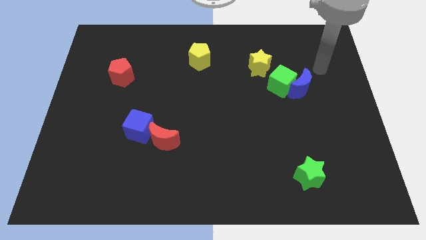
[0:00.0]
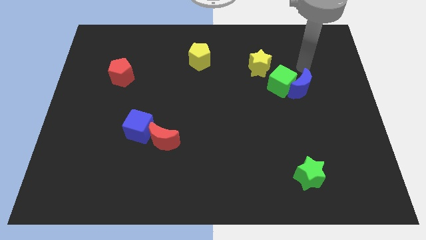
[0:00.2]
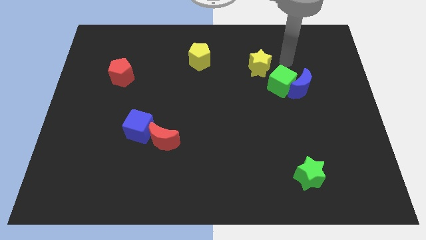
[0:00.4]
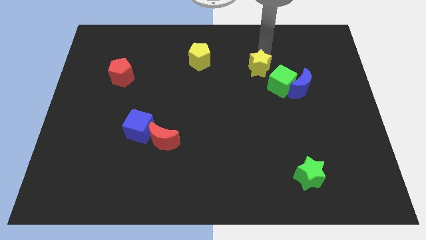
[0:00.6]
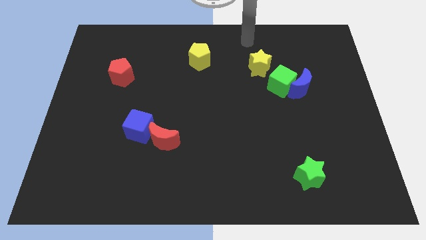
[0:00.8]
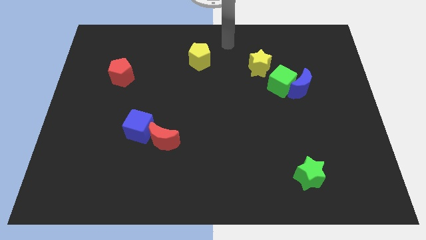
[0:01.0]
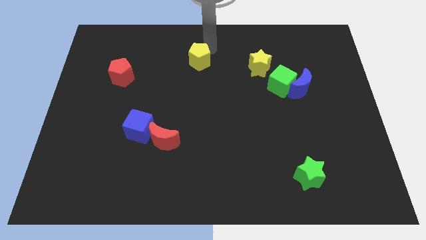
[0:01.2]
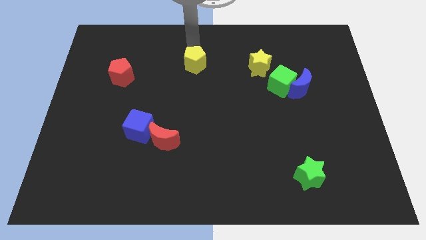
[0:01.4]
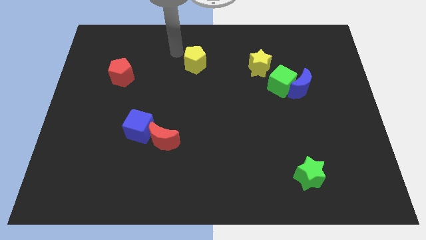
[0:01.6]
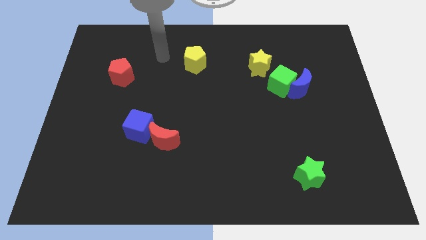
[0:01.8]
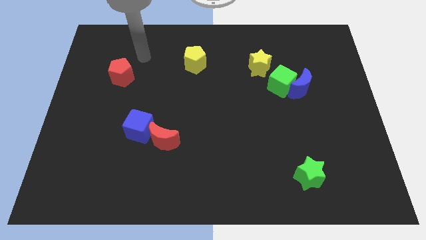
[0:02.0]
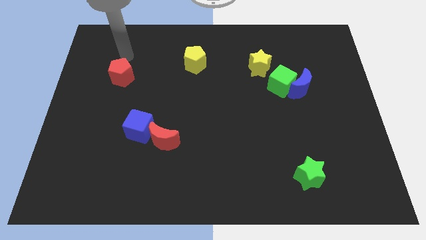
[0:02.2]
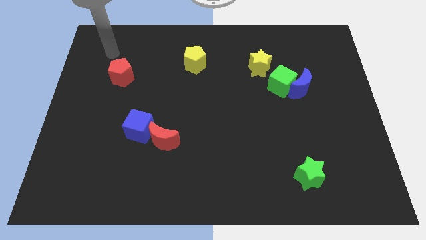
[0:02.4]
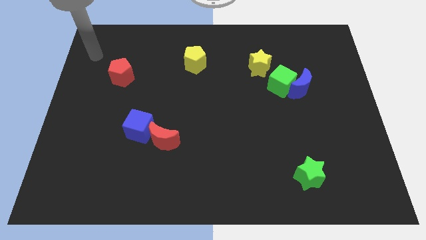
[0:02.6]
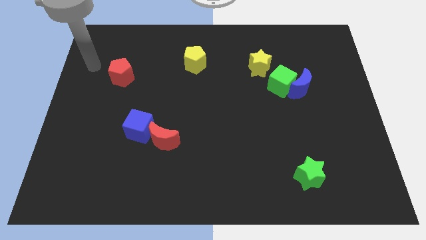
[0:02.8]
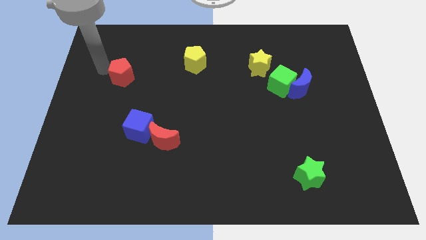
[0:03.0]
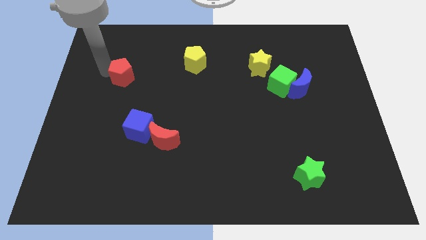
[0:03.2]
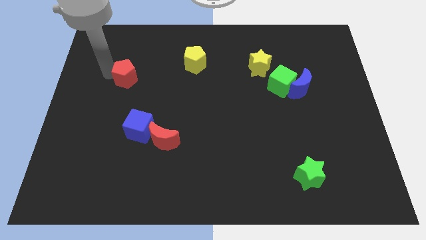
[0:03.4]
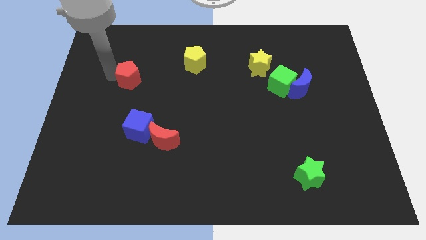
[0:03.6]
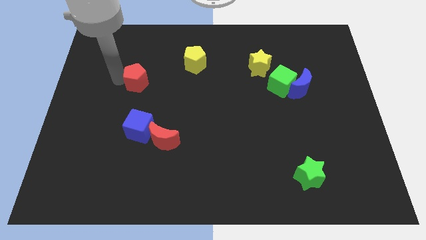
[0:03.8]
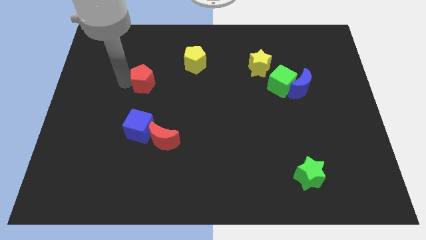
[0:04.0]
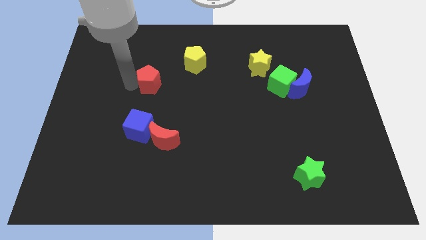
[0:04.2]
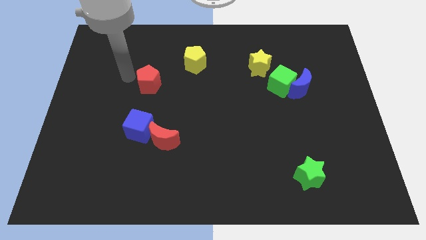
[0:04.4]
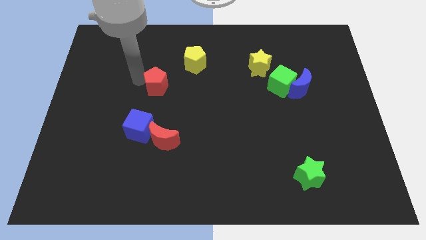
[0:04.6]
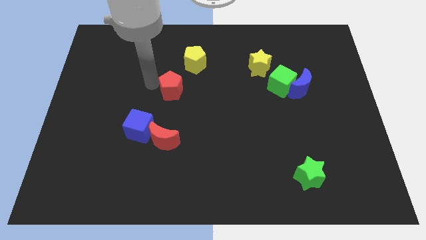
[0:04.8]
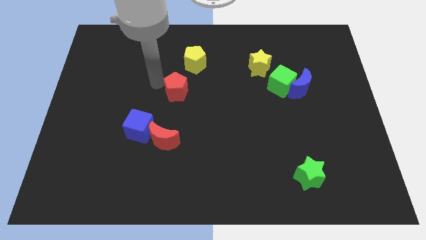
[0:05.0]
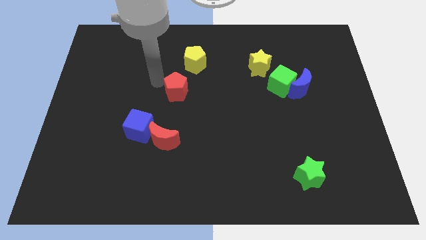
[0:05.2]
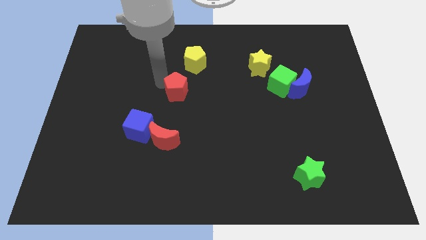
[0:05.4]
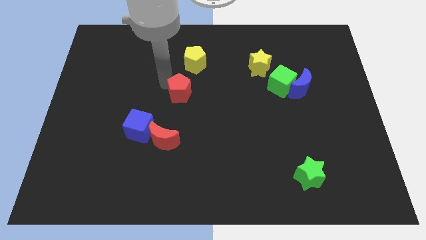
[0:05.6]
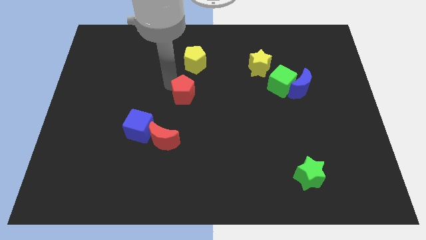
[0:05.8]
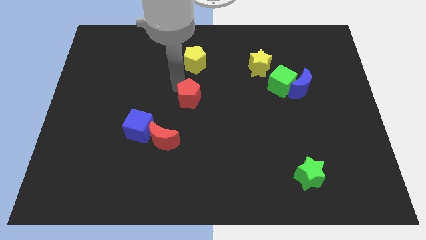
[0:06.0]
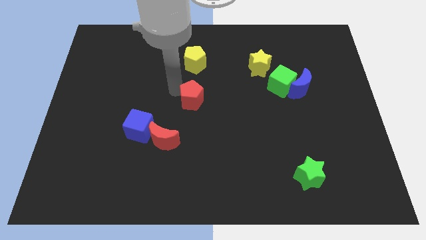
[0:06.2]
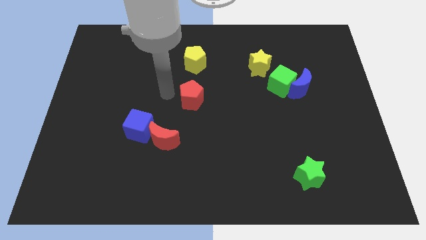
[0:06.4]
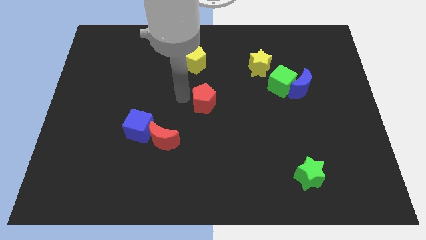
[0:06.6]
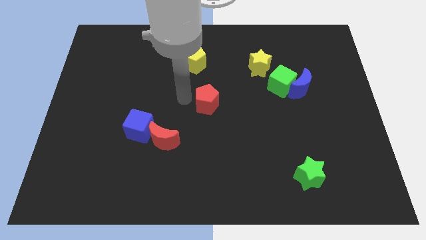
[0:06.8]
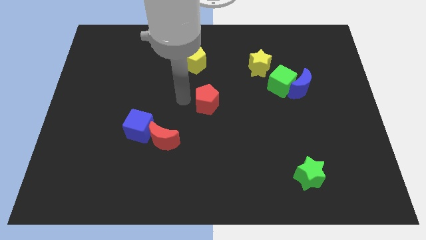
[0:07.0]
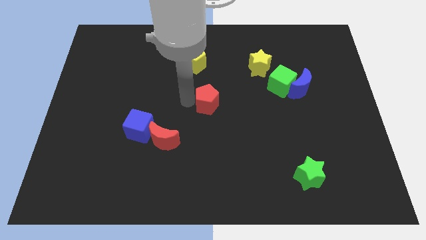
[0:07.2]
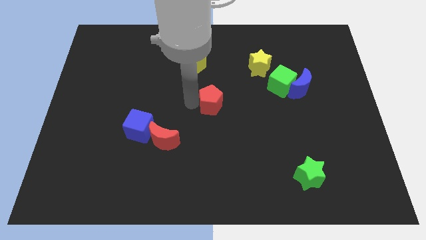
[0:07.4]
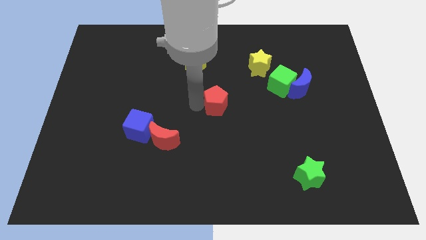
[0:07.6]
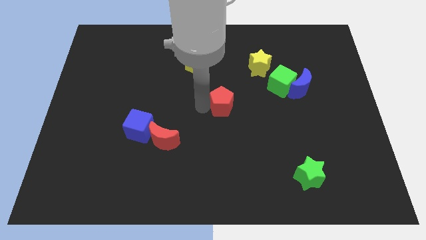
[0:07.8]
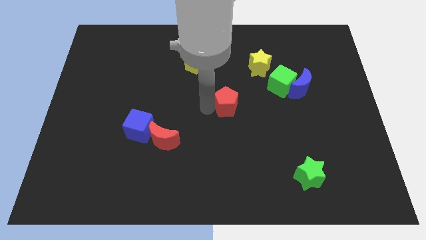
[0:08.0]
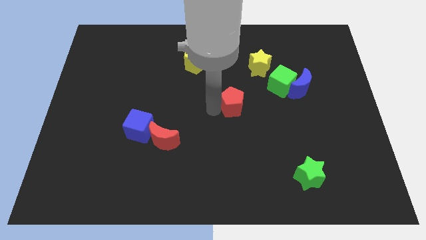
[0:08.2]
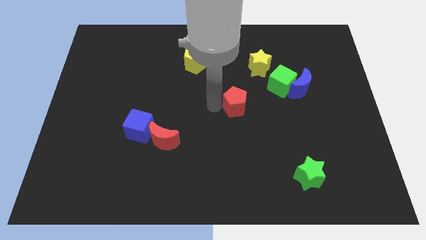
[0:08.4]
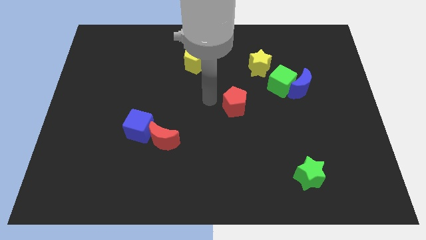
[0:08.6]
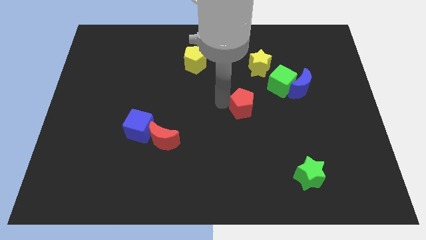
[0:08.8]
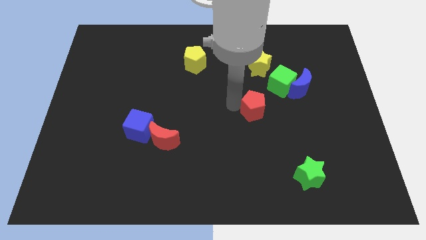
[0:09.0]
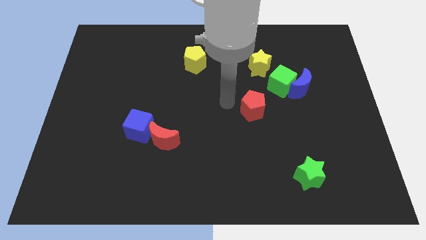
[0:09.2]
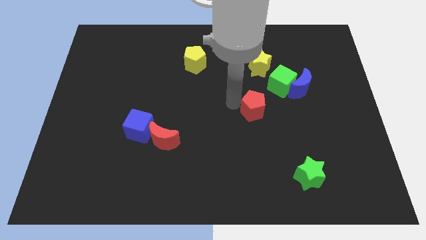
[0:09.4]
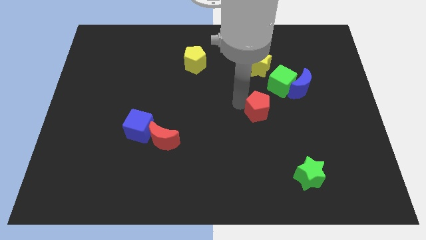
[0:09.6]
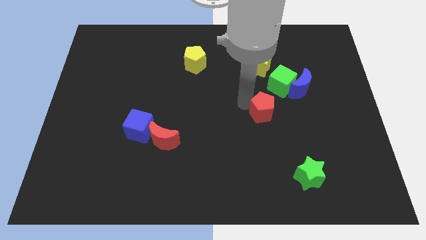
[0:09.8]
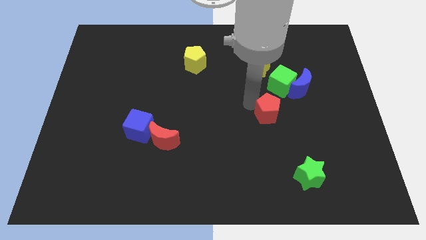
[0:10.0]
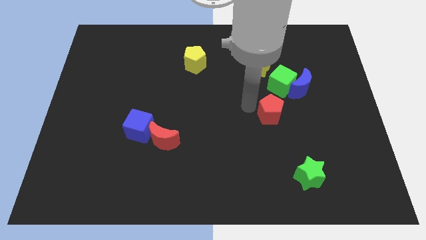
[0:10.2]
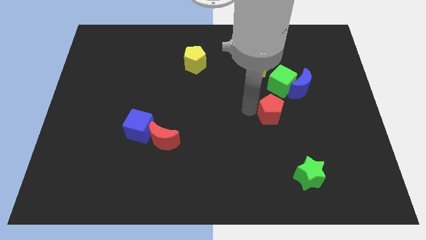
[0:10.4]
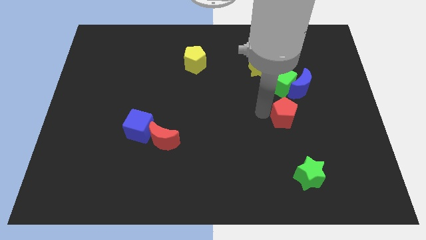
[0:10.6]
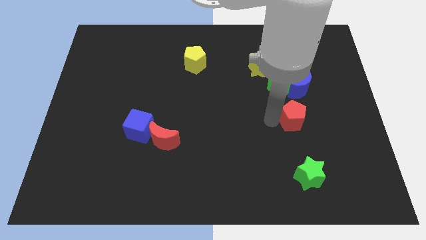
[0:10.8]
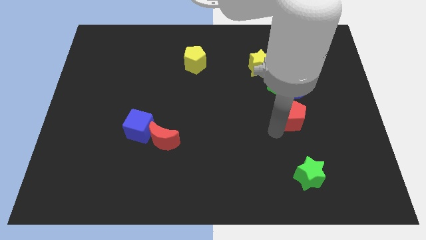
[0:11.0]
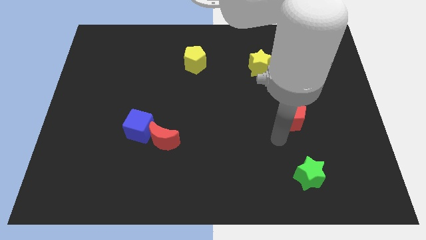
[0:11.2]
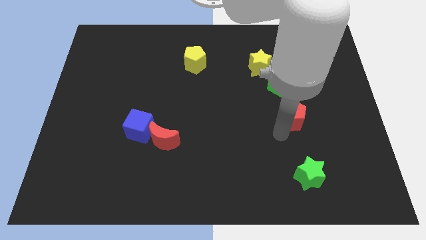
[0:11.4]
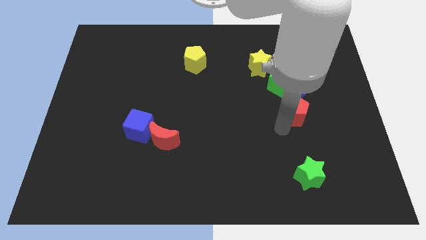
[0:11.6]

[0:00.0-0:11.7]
put the red pentagon to the bottom right of the green cube

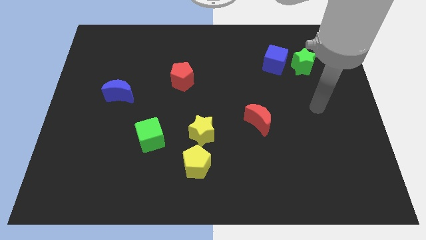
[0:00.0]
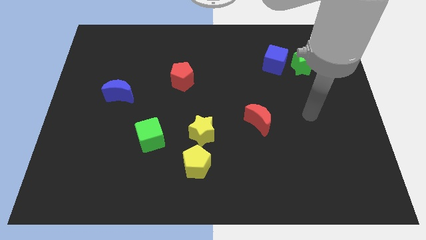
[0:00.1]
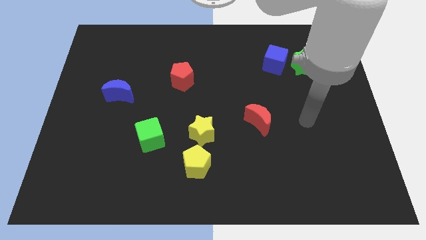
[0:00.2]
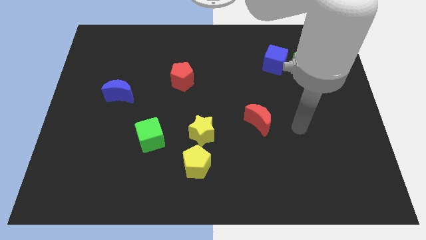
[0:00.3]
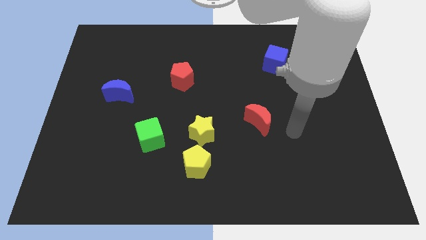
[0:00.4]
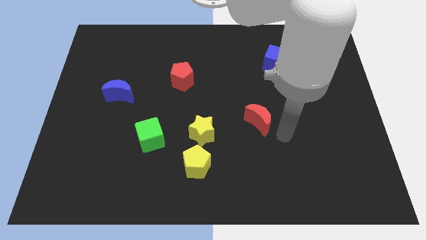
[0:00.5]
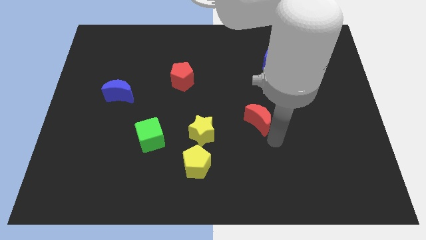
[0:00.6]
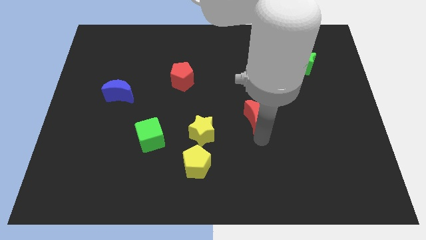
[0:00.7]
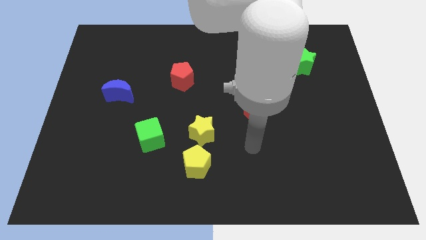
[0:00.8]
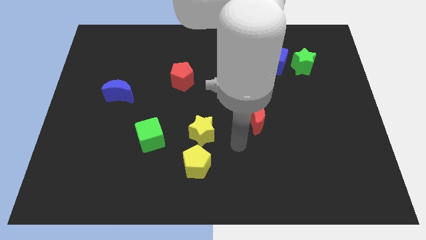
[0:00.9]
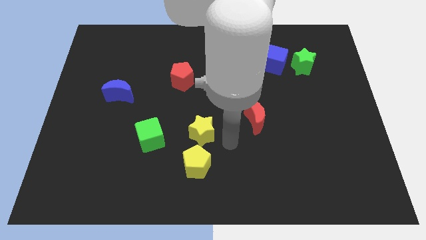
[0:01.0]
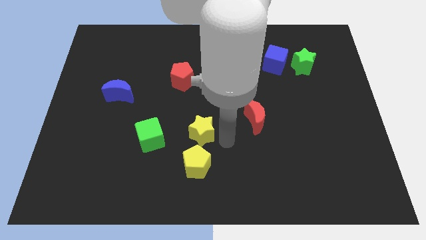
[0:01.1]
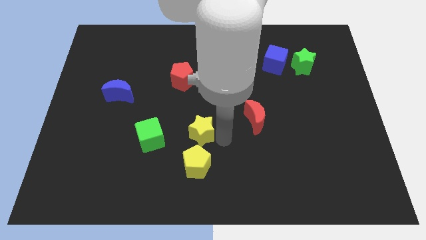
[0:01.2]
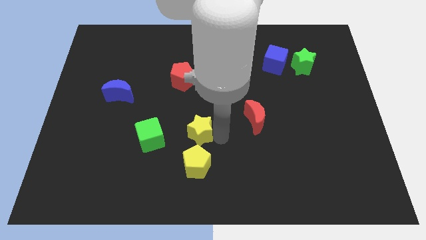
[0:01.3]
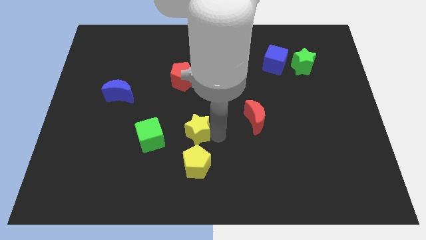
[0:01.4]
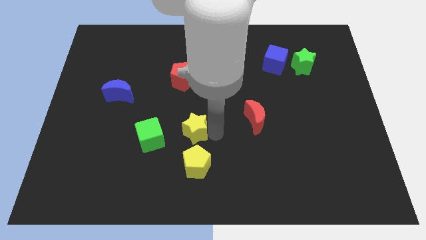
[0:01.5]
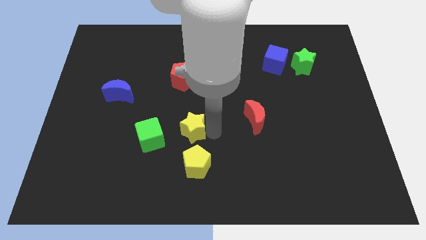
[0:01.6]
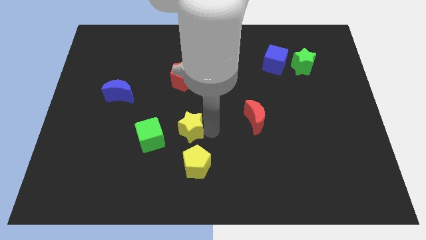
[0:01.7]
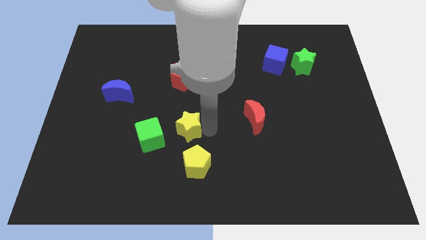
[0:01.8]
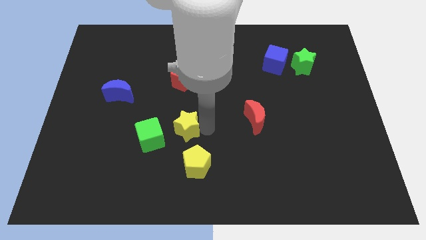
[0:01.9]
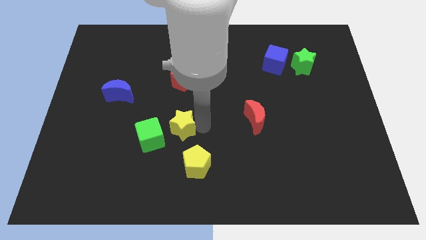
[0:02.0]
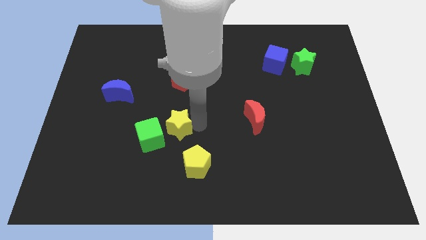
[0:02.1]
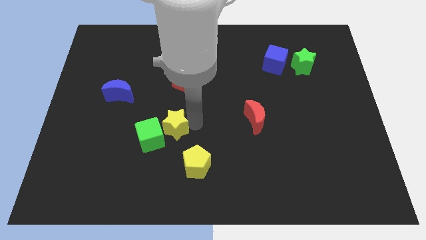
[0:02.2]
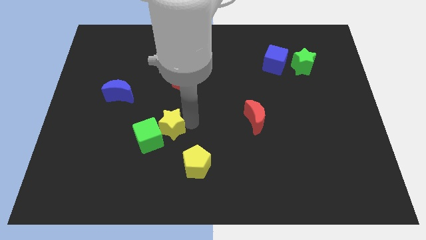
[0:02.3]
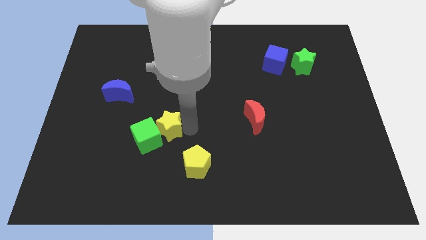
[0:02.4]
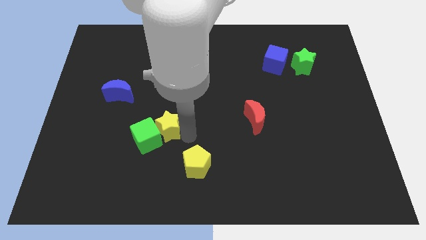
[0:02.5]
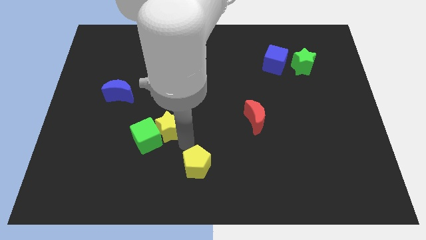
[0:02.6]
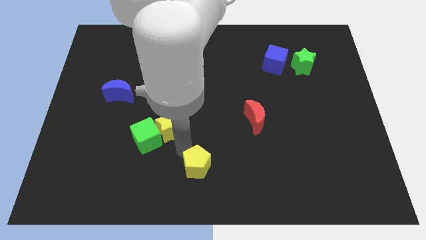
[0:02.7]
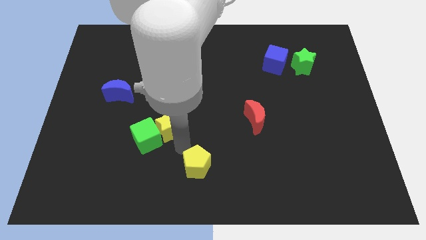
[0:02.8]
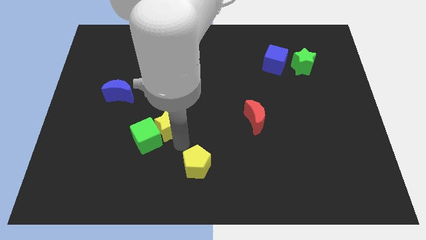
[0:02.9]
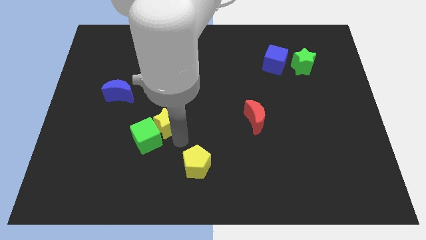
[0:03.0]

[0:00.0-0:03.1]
move the yellow star to the top of the green cube
